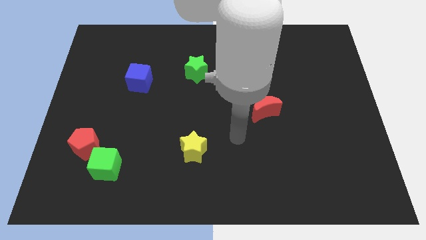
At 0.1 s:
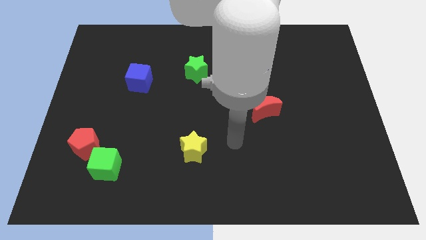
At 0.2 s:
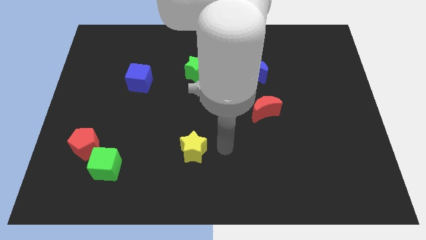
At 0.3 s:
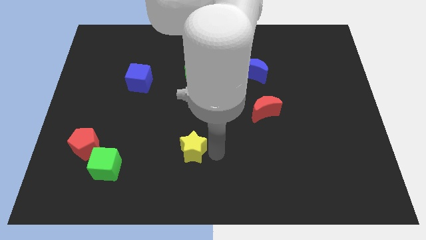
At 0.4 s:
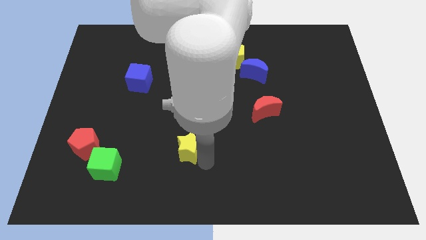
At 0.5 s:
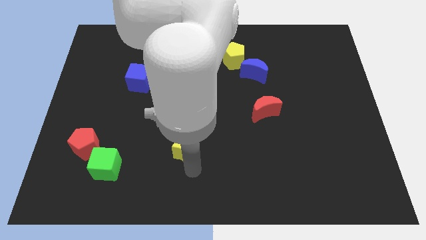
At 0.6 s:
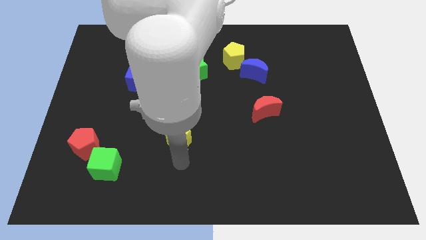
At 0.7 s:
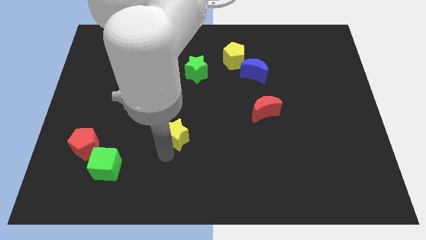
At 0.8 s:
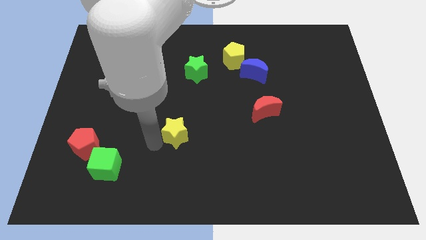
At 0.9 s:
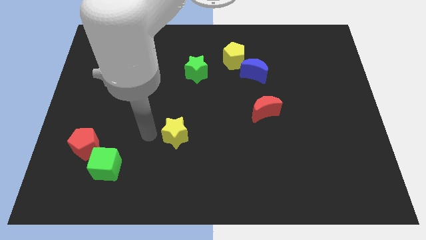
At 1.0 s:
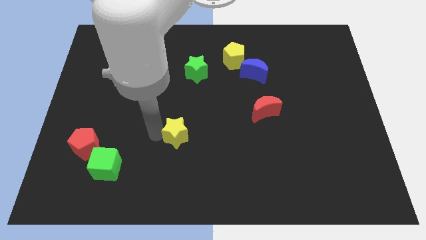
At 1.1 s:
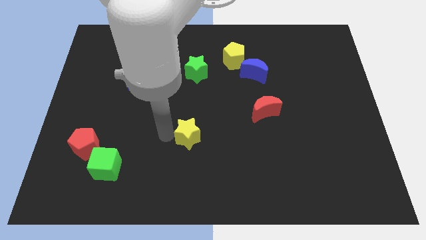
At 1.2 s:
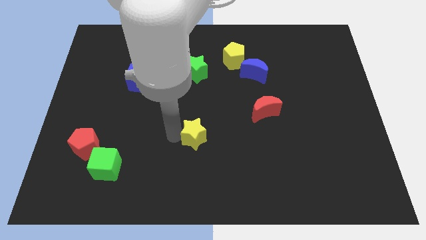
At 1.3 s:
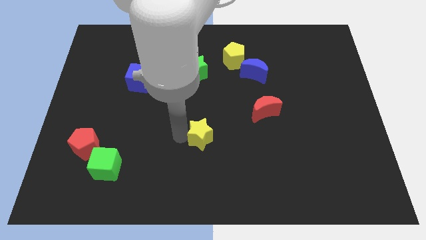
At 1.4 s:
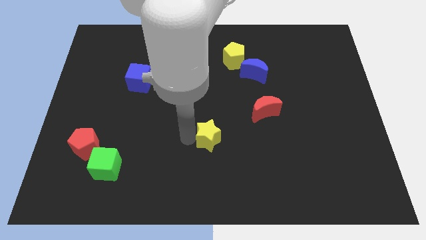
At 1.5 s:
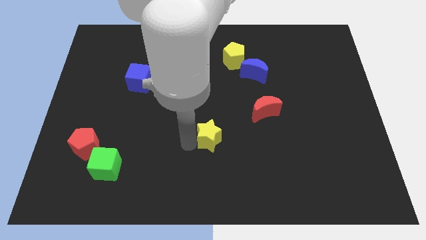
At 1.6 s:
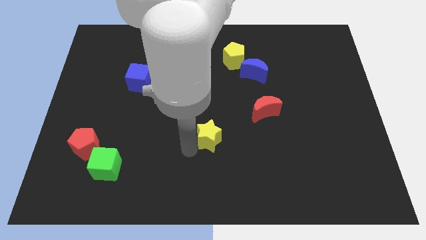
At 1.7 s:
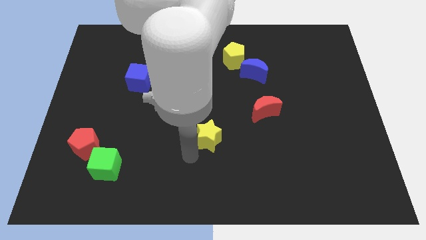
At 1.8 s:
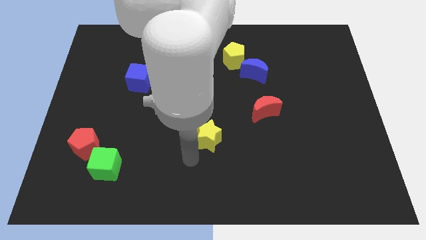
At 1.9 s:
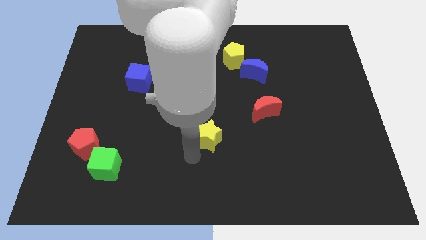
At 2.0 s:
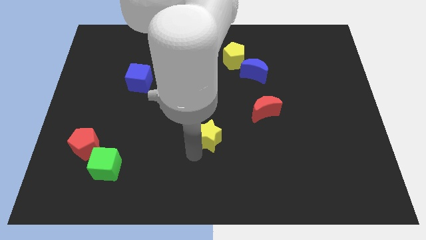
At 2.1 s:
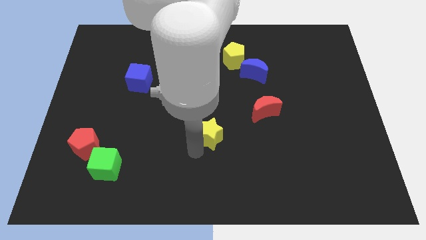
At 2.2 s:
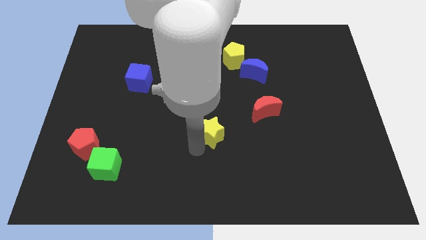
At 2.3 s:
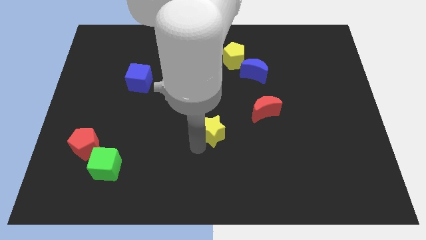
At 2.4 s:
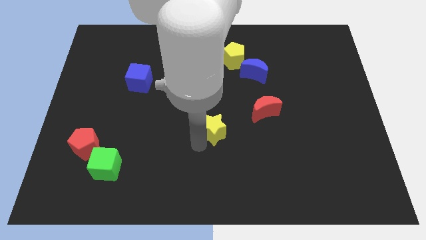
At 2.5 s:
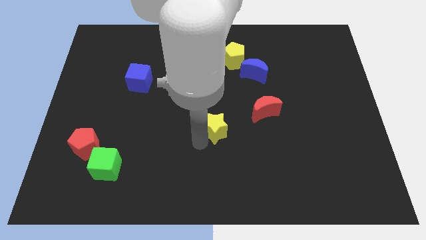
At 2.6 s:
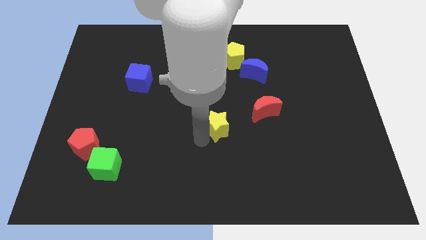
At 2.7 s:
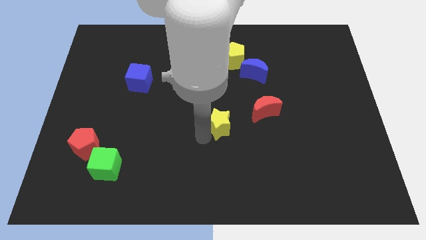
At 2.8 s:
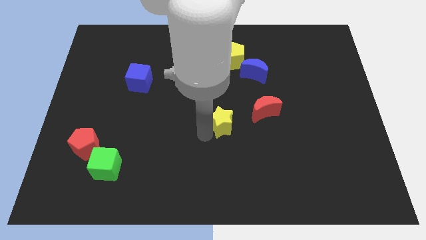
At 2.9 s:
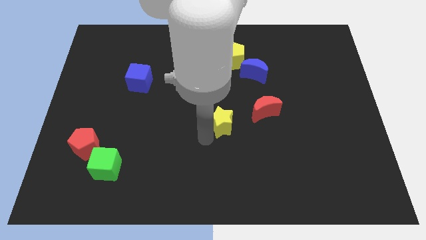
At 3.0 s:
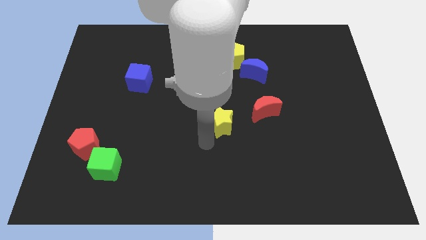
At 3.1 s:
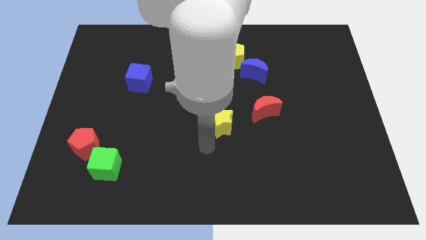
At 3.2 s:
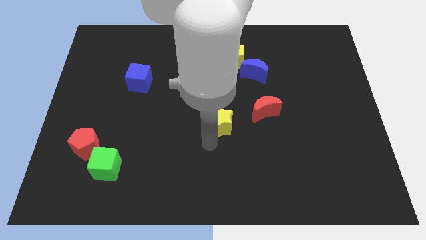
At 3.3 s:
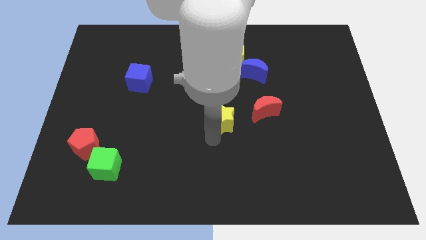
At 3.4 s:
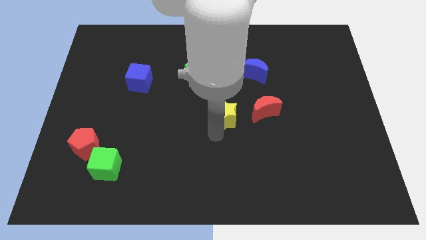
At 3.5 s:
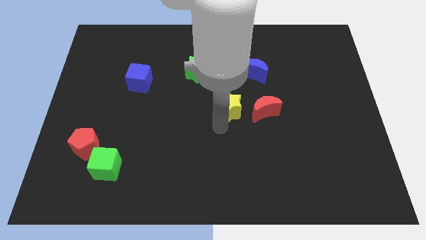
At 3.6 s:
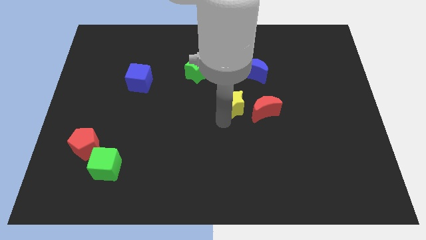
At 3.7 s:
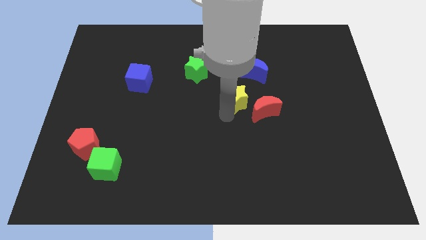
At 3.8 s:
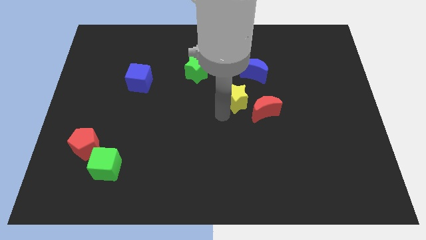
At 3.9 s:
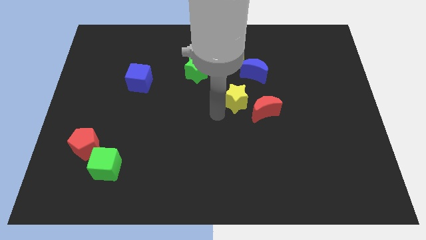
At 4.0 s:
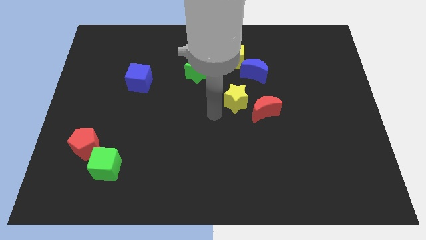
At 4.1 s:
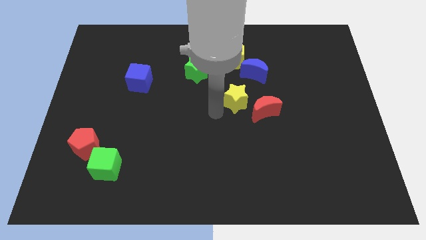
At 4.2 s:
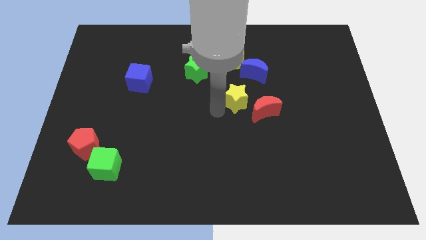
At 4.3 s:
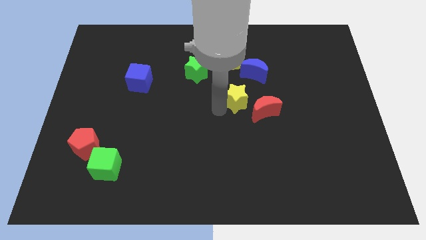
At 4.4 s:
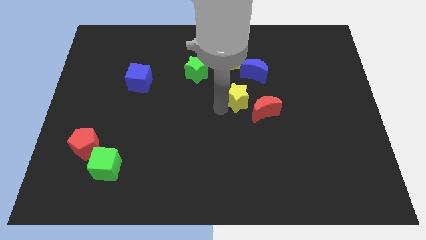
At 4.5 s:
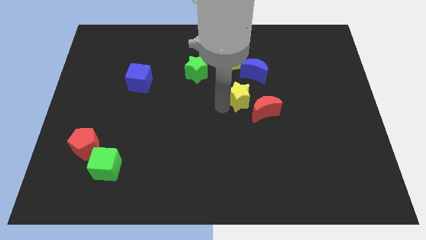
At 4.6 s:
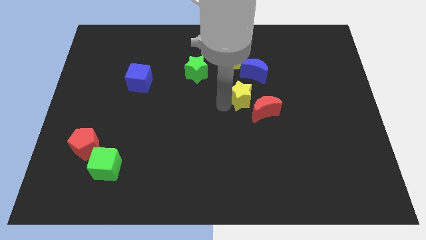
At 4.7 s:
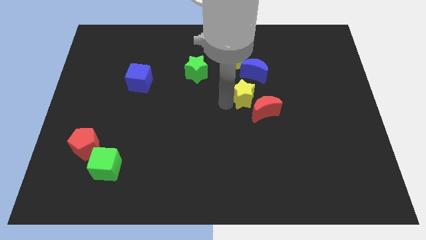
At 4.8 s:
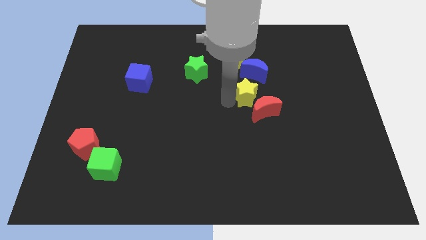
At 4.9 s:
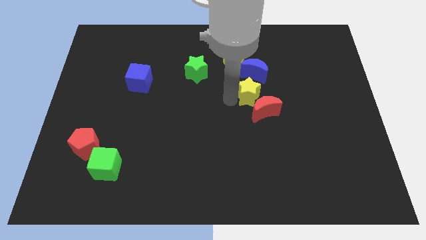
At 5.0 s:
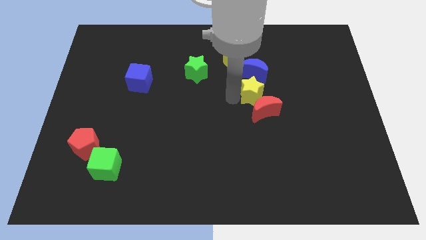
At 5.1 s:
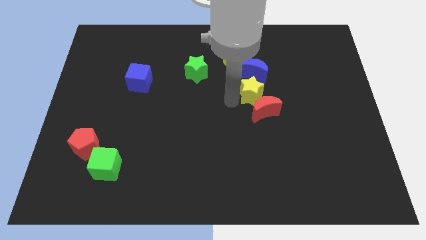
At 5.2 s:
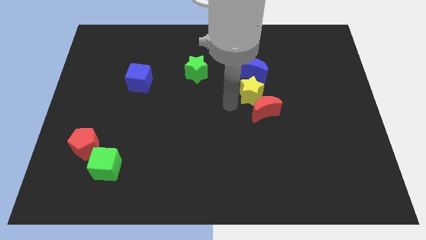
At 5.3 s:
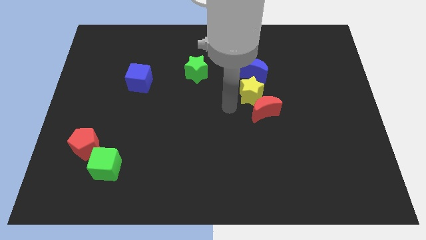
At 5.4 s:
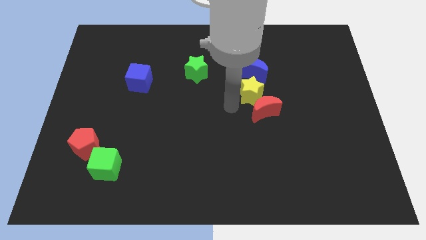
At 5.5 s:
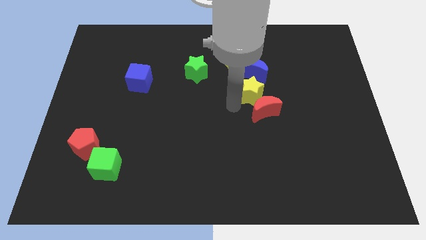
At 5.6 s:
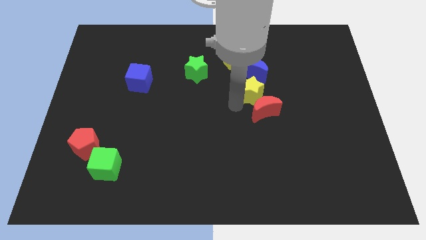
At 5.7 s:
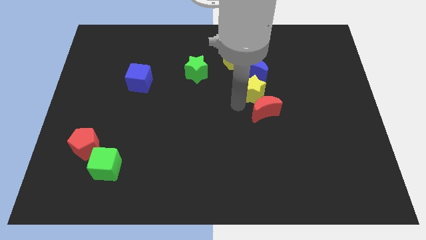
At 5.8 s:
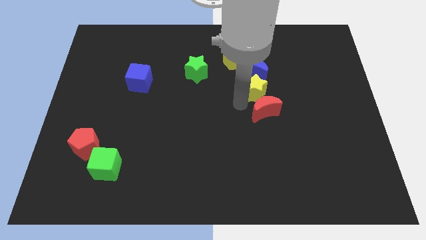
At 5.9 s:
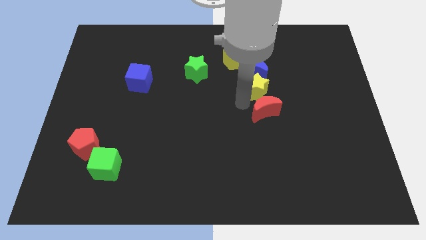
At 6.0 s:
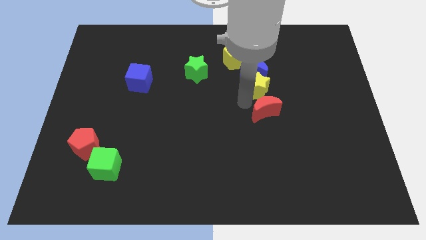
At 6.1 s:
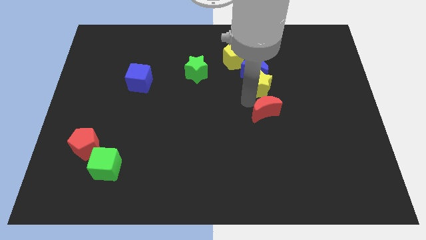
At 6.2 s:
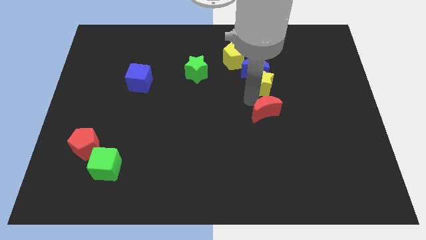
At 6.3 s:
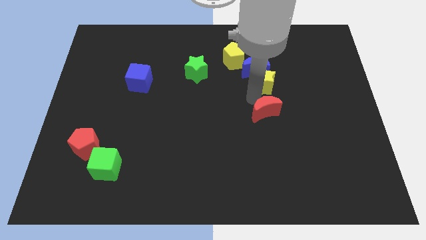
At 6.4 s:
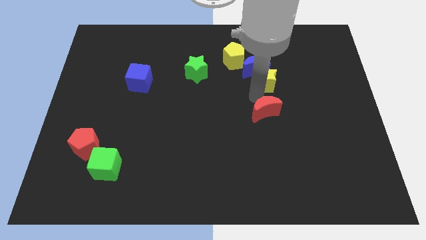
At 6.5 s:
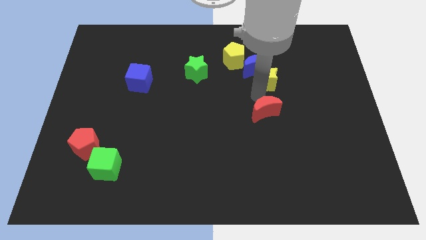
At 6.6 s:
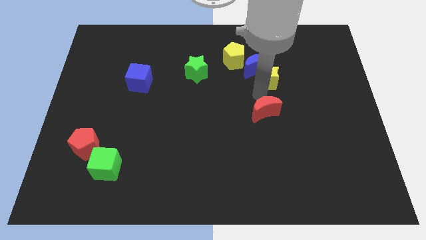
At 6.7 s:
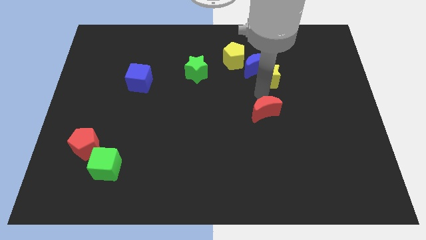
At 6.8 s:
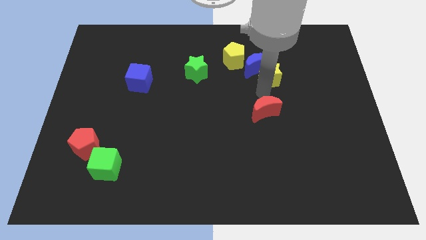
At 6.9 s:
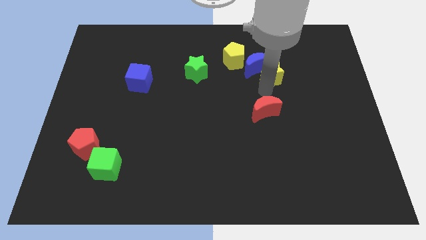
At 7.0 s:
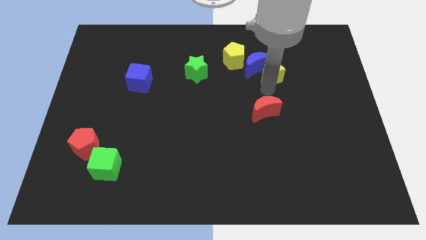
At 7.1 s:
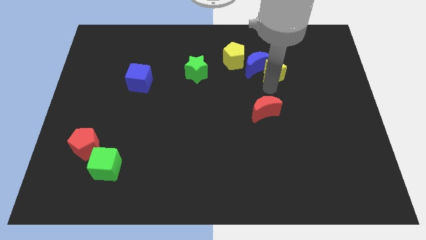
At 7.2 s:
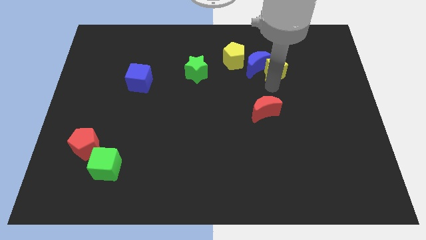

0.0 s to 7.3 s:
push the yellow star to the right side of the yellow pentagon
